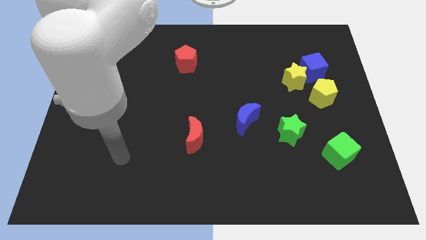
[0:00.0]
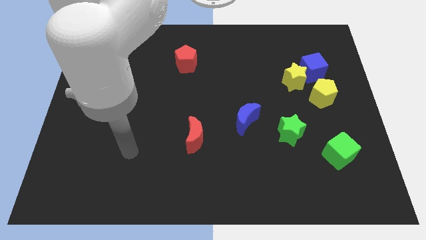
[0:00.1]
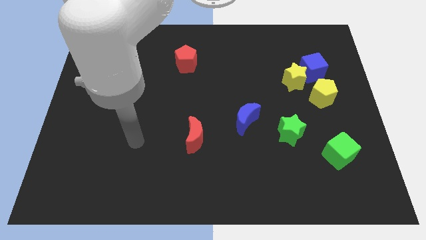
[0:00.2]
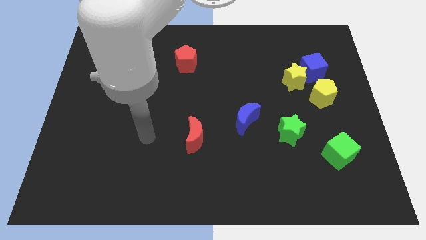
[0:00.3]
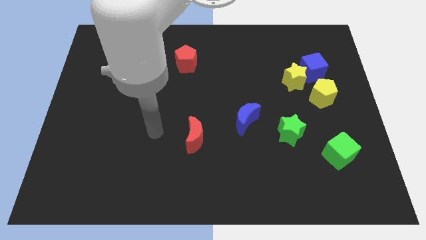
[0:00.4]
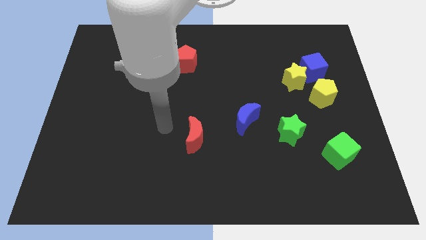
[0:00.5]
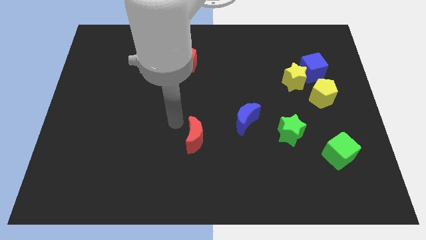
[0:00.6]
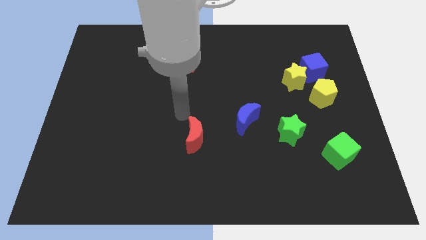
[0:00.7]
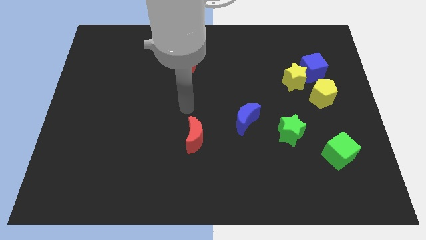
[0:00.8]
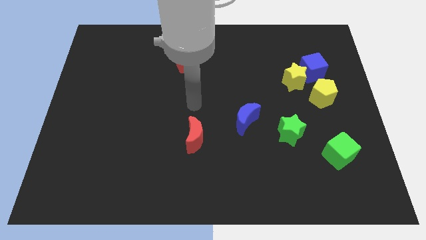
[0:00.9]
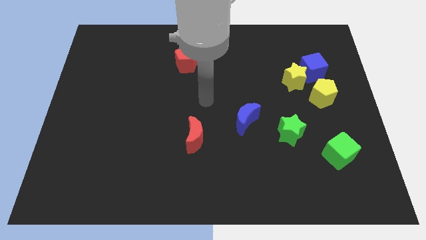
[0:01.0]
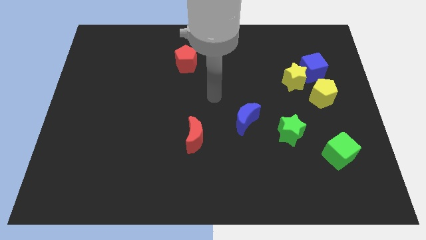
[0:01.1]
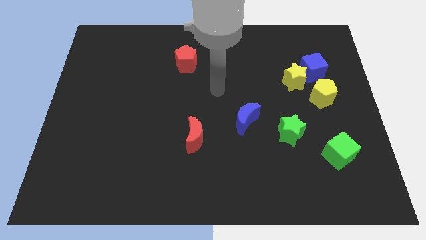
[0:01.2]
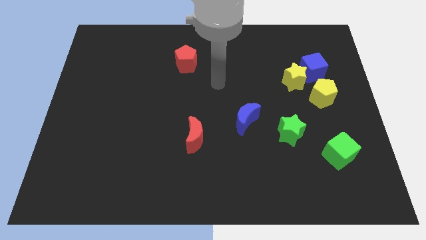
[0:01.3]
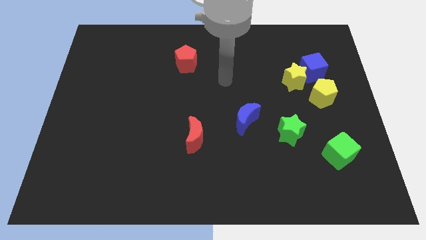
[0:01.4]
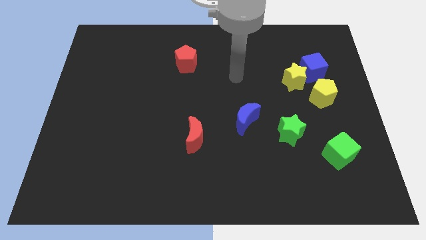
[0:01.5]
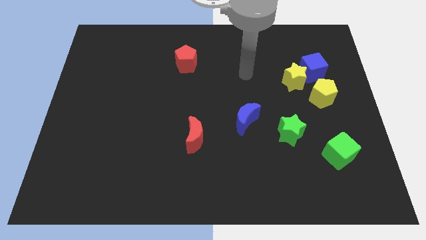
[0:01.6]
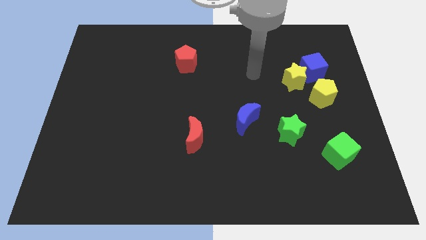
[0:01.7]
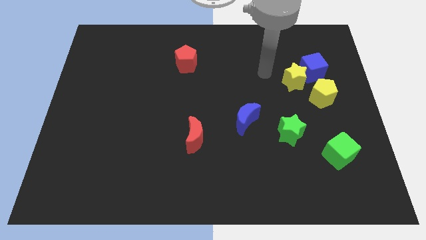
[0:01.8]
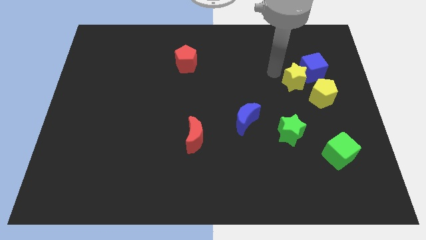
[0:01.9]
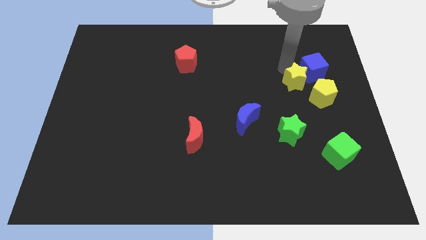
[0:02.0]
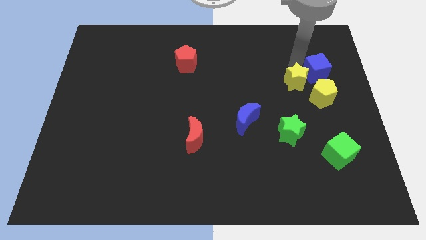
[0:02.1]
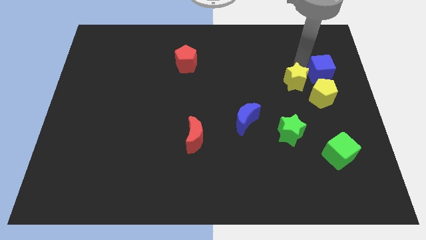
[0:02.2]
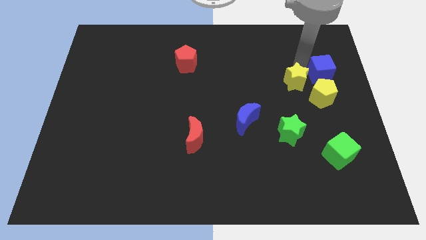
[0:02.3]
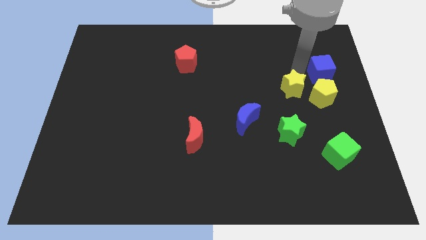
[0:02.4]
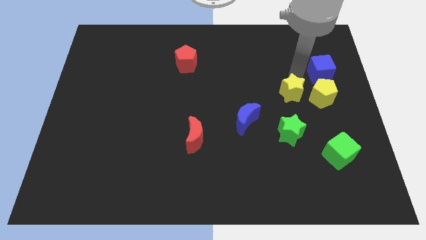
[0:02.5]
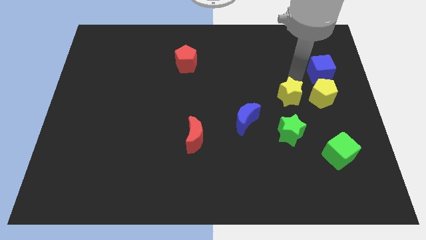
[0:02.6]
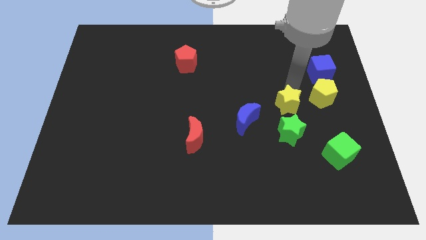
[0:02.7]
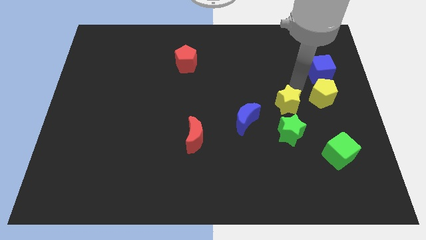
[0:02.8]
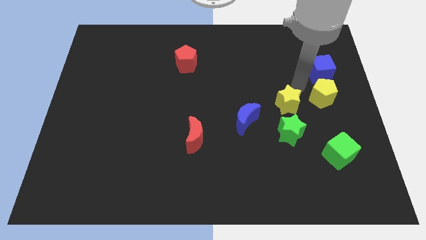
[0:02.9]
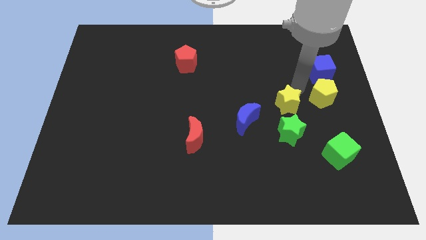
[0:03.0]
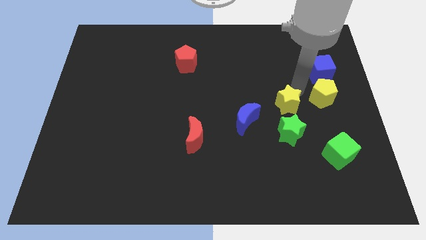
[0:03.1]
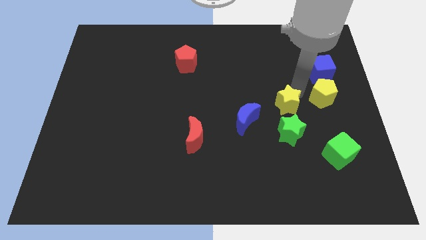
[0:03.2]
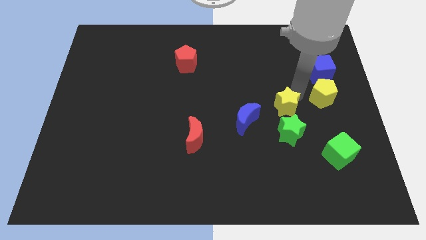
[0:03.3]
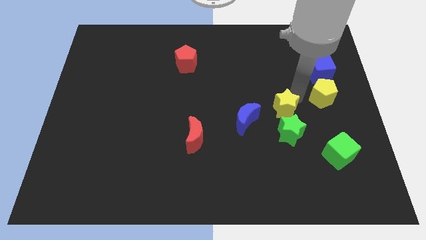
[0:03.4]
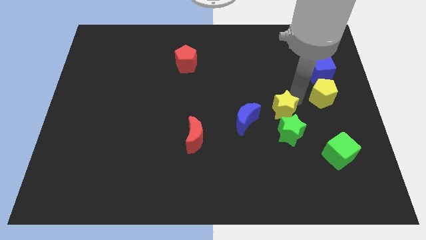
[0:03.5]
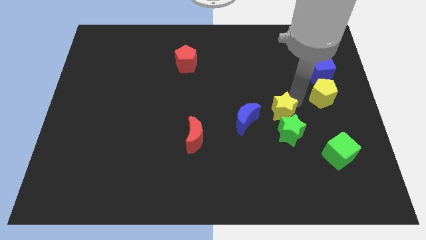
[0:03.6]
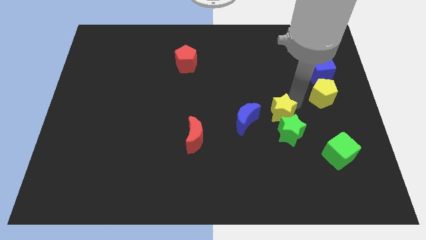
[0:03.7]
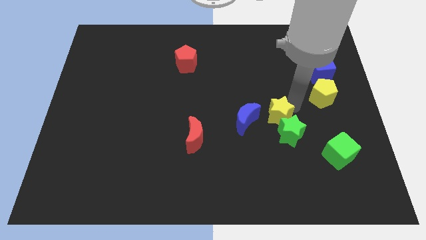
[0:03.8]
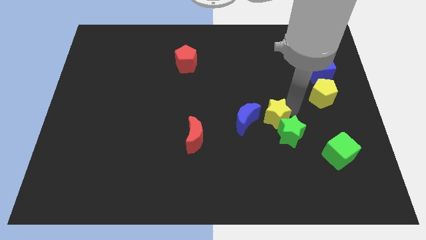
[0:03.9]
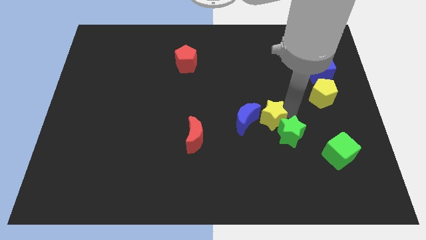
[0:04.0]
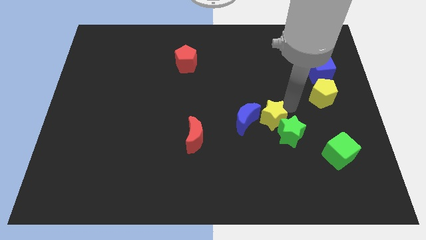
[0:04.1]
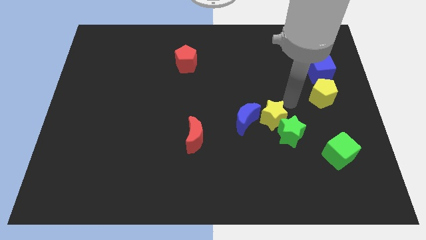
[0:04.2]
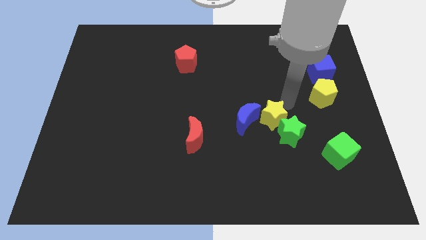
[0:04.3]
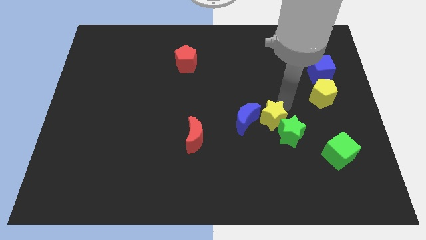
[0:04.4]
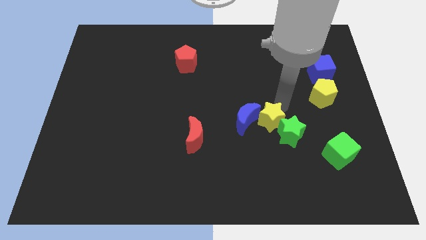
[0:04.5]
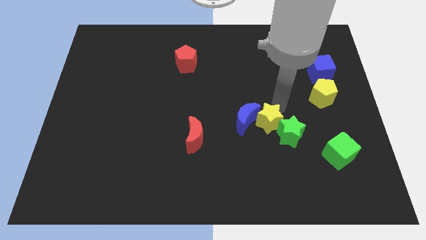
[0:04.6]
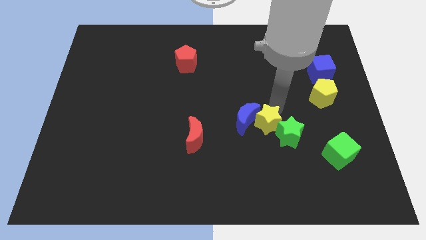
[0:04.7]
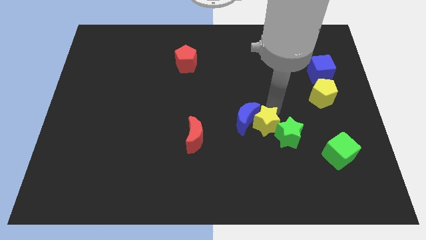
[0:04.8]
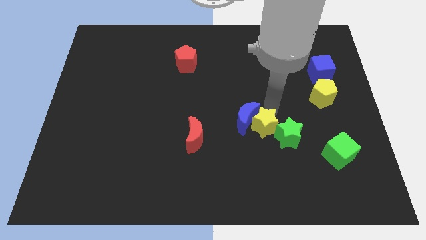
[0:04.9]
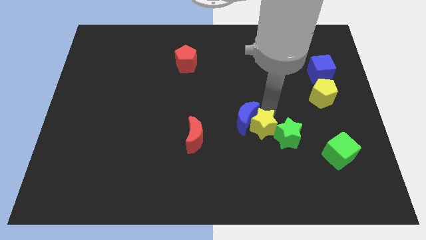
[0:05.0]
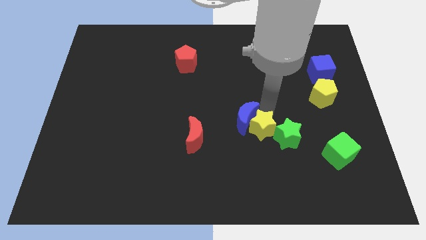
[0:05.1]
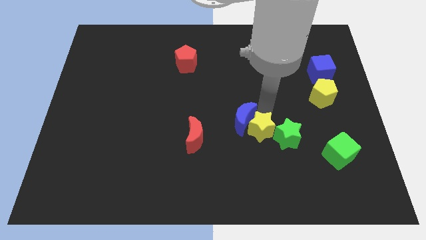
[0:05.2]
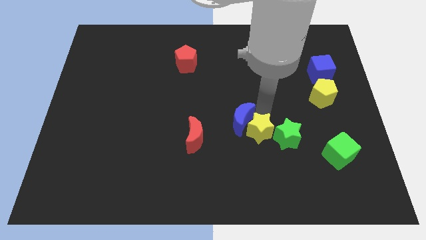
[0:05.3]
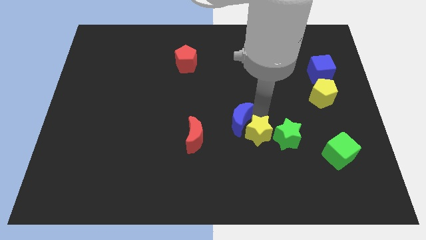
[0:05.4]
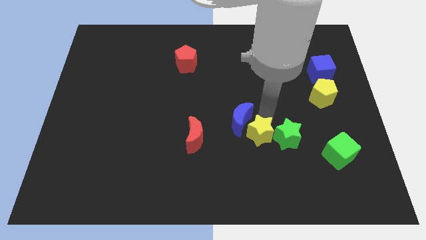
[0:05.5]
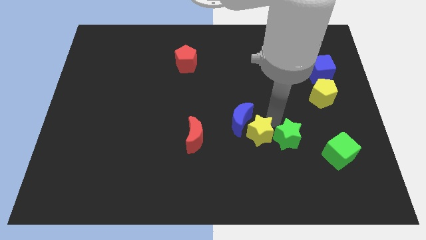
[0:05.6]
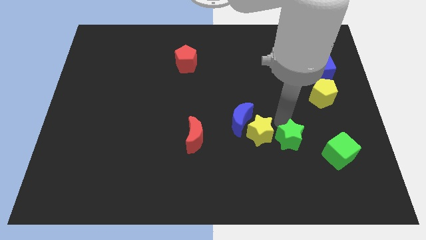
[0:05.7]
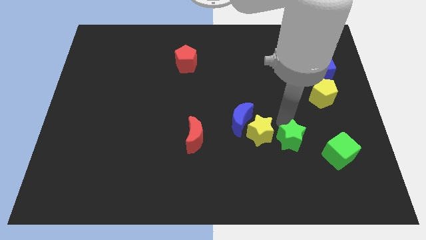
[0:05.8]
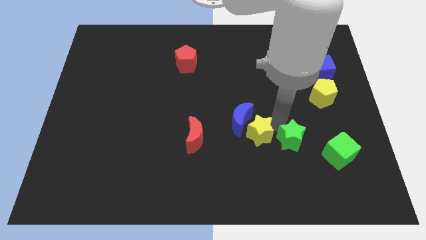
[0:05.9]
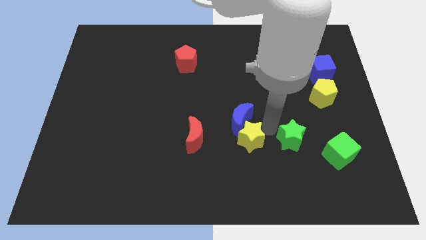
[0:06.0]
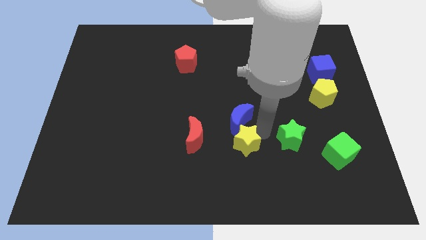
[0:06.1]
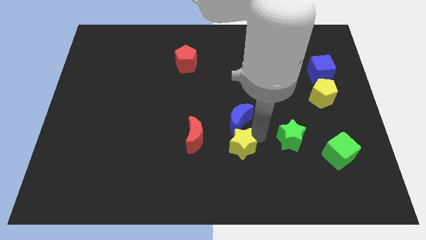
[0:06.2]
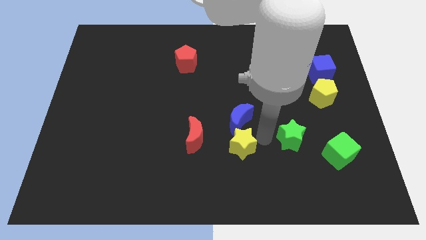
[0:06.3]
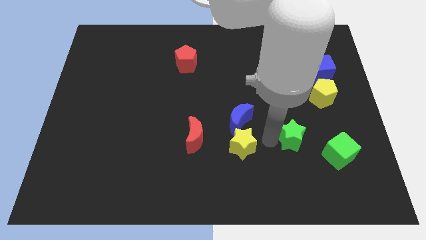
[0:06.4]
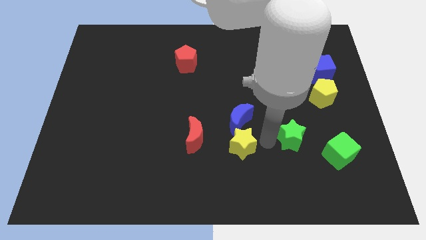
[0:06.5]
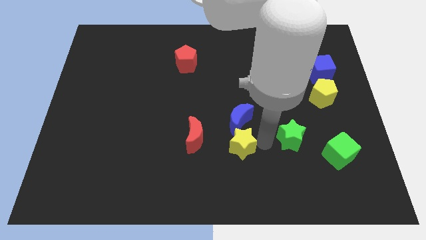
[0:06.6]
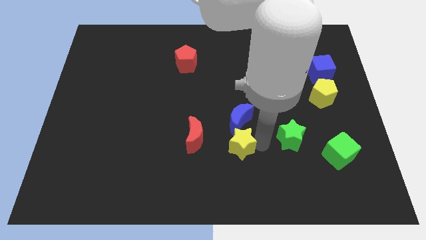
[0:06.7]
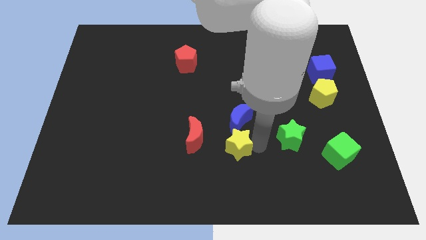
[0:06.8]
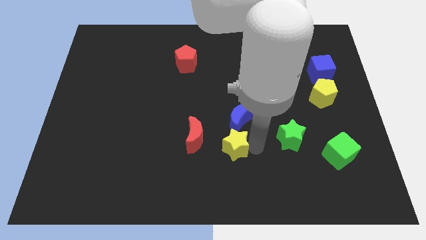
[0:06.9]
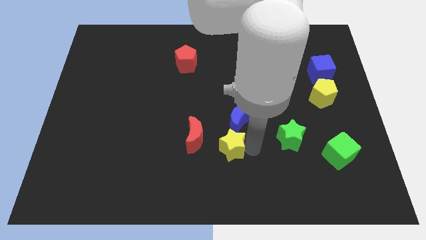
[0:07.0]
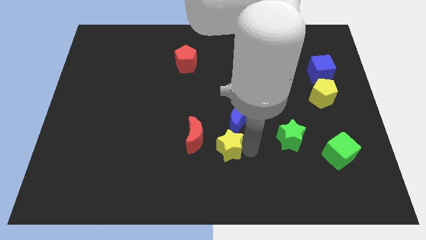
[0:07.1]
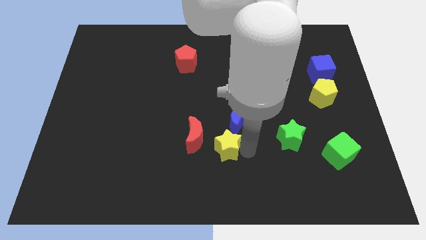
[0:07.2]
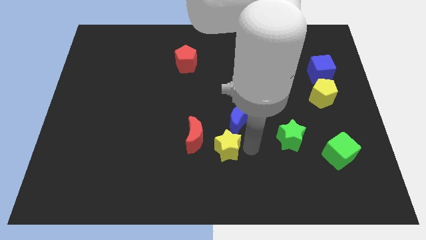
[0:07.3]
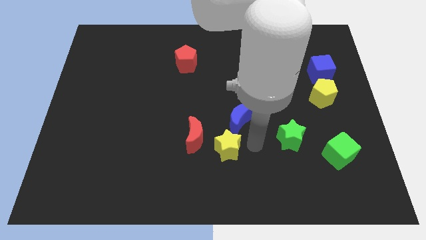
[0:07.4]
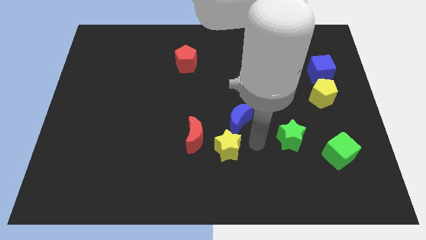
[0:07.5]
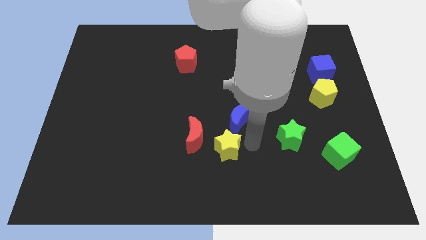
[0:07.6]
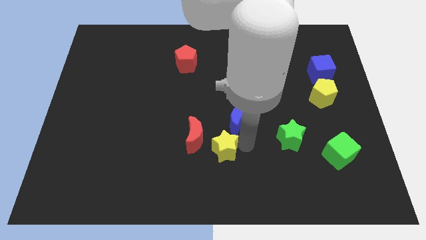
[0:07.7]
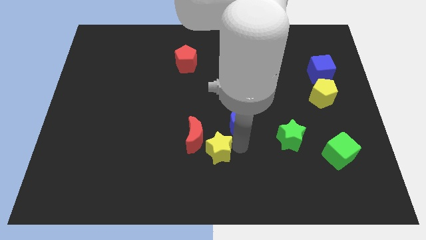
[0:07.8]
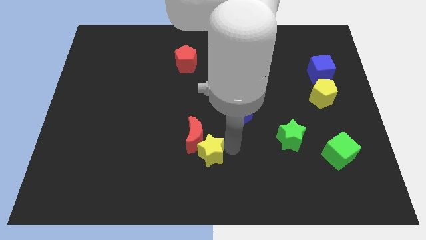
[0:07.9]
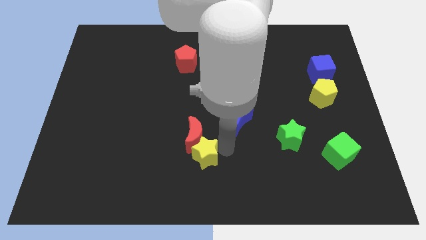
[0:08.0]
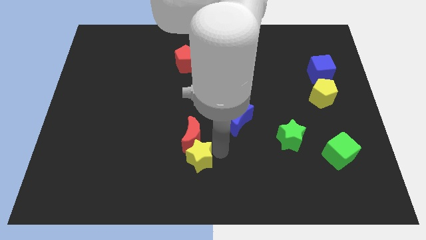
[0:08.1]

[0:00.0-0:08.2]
put the yellow star to the bottom left side of the red moon
